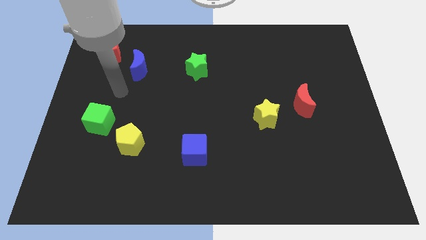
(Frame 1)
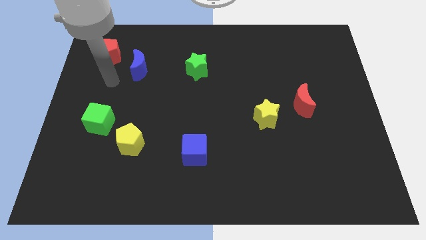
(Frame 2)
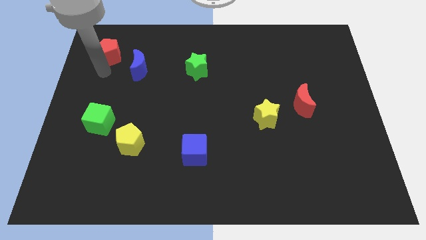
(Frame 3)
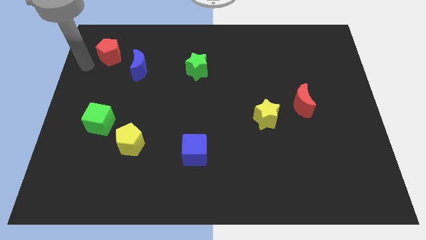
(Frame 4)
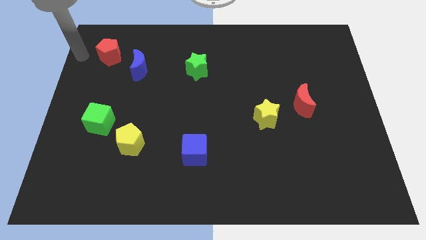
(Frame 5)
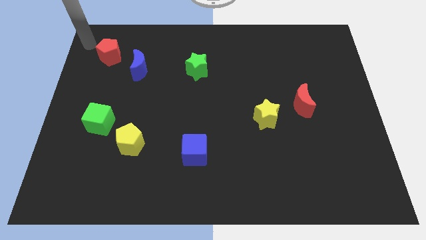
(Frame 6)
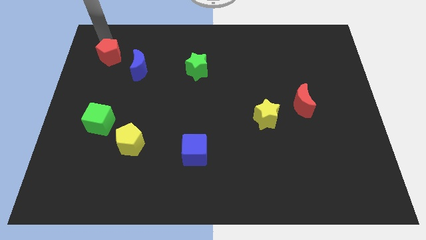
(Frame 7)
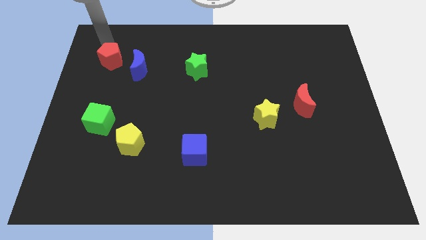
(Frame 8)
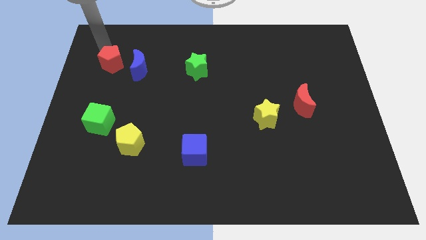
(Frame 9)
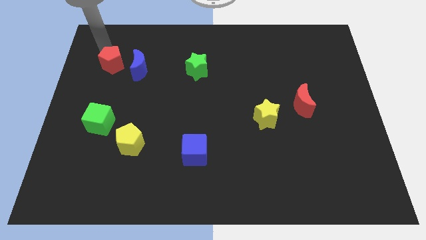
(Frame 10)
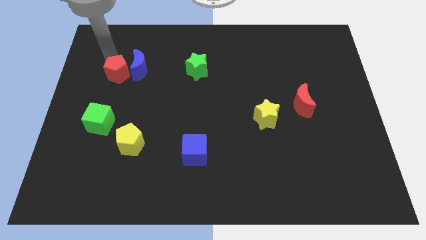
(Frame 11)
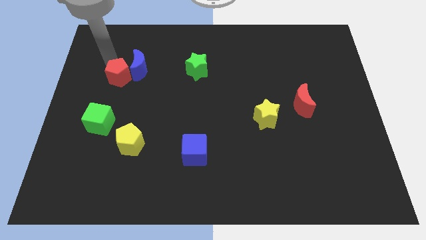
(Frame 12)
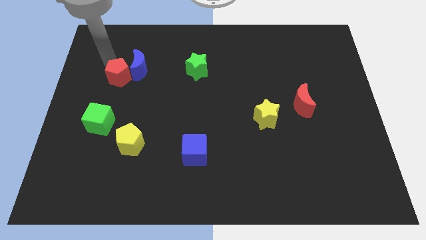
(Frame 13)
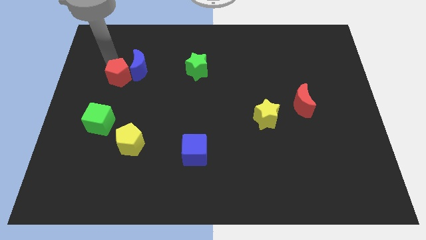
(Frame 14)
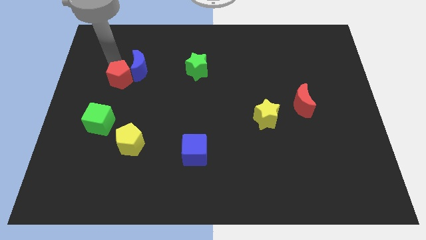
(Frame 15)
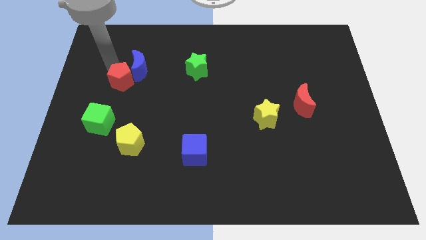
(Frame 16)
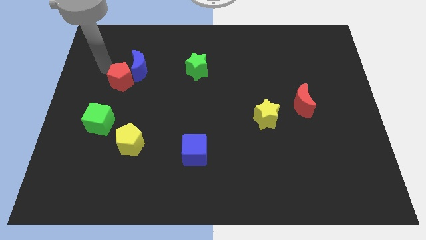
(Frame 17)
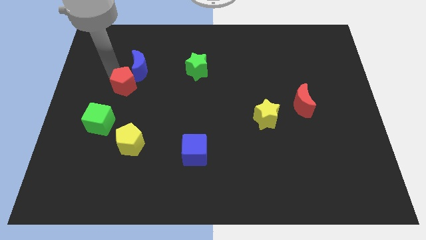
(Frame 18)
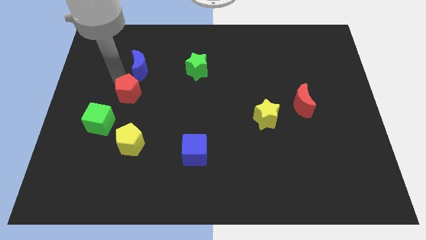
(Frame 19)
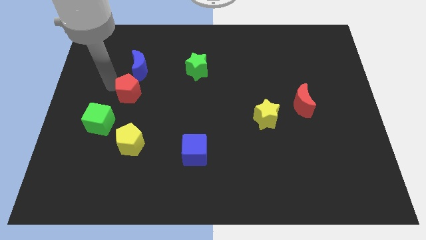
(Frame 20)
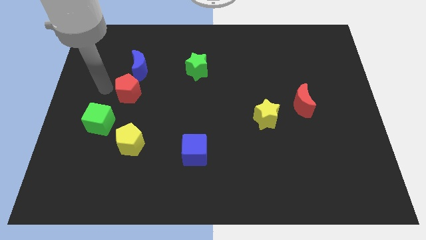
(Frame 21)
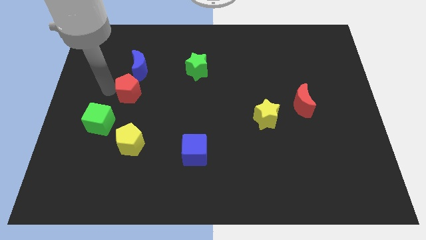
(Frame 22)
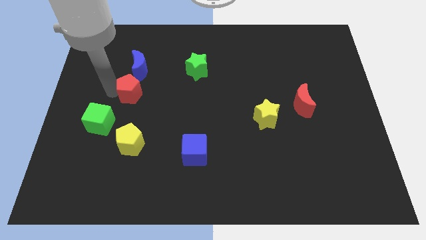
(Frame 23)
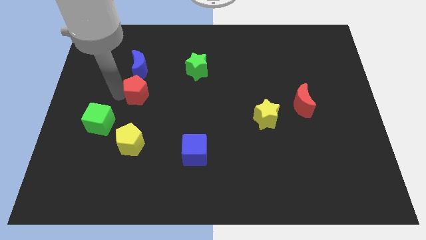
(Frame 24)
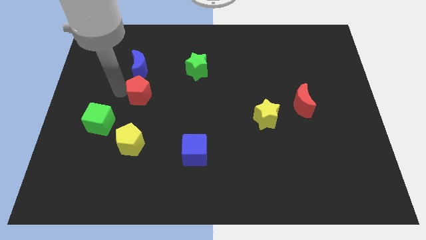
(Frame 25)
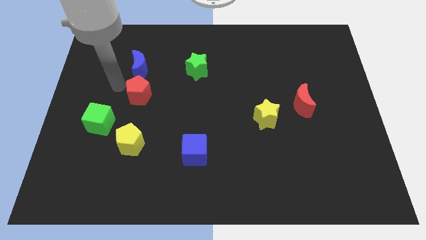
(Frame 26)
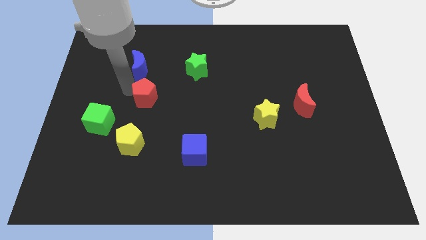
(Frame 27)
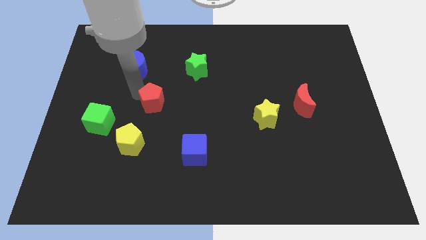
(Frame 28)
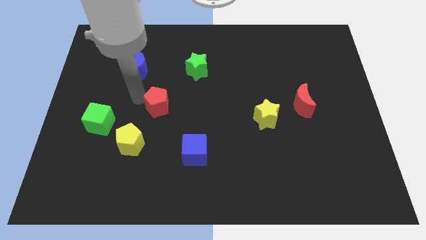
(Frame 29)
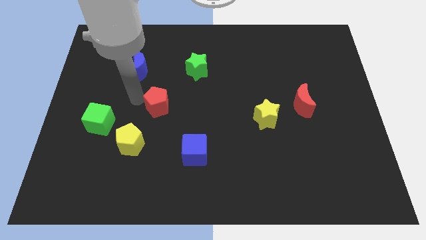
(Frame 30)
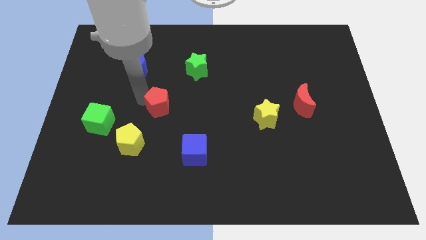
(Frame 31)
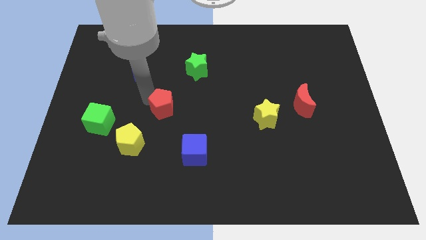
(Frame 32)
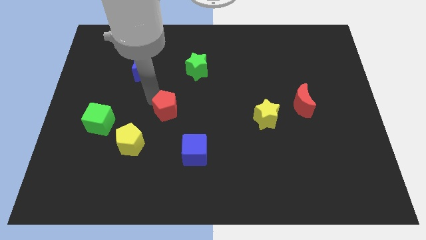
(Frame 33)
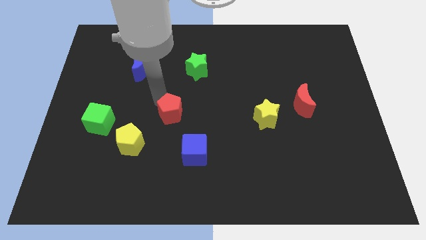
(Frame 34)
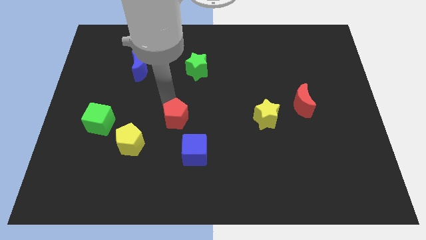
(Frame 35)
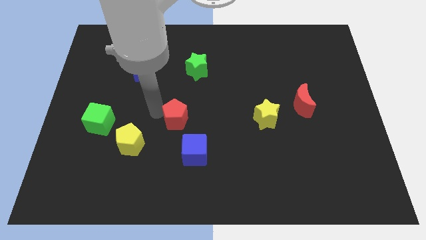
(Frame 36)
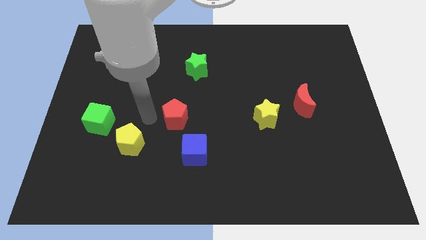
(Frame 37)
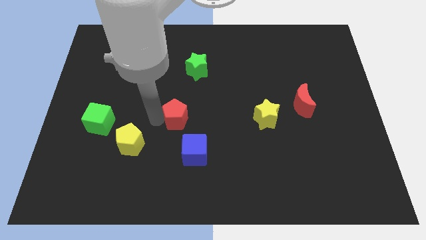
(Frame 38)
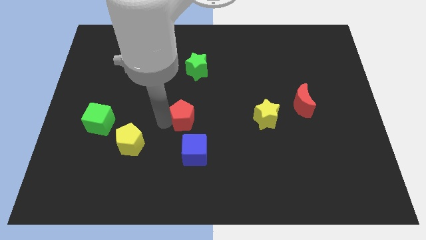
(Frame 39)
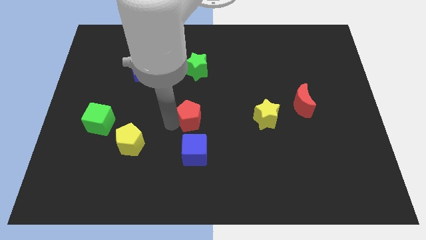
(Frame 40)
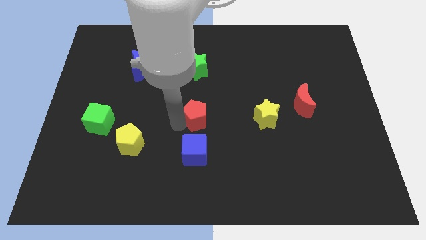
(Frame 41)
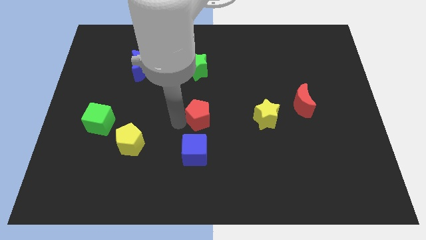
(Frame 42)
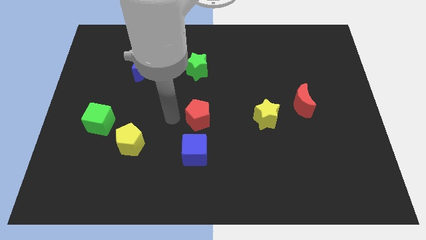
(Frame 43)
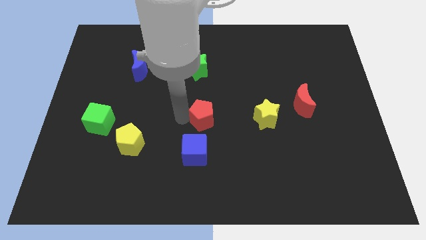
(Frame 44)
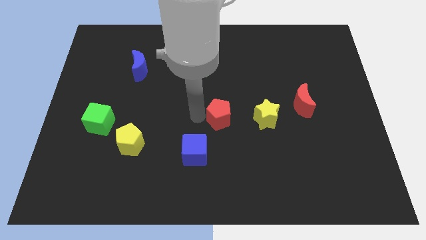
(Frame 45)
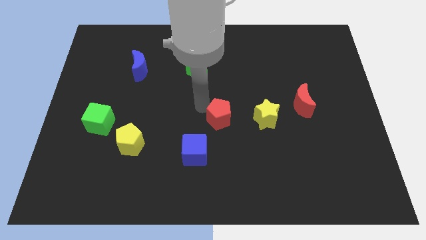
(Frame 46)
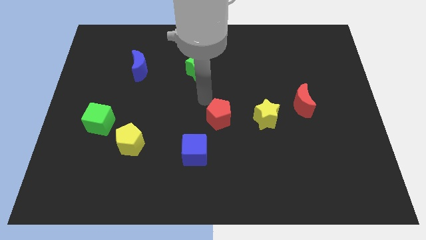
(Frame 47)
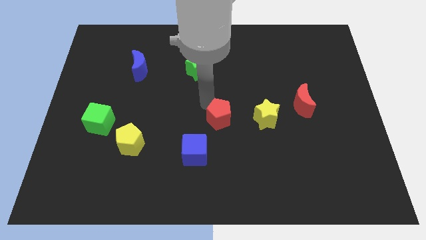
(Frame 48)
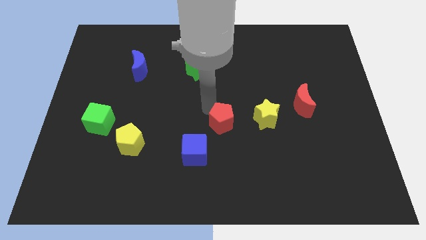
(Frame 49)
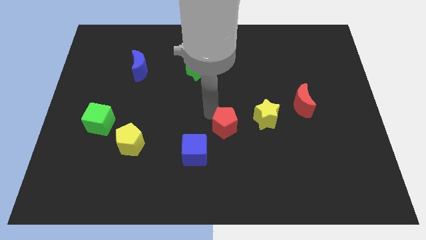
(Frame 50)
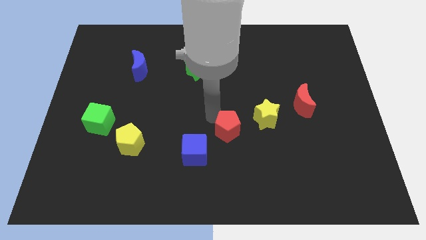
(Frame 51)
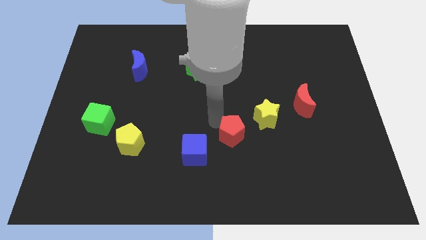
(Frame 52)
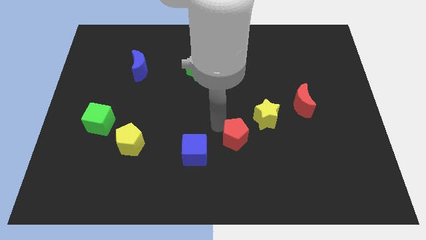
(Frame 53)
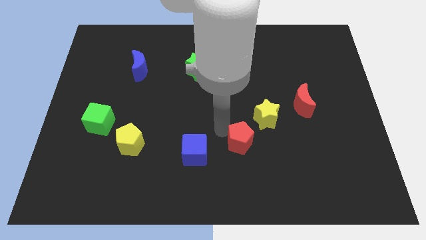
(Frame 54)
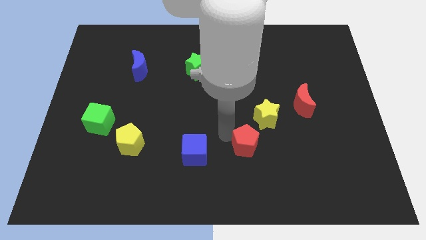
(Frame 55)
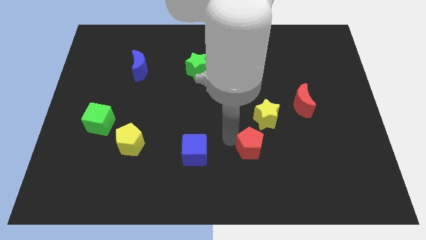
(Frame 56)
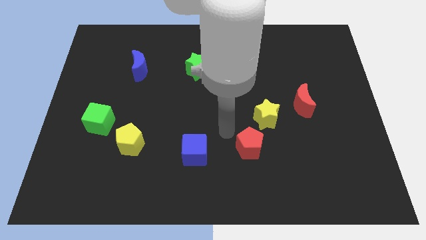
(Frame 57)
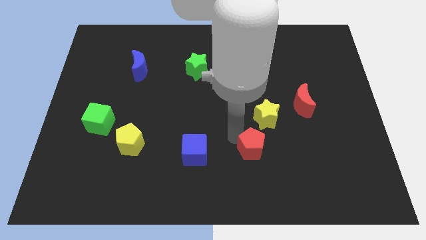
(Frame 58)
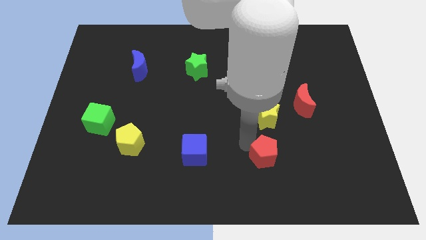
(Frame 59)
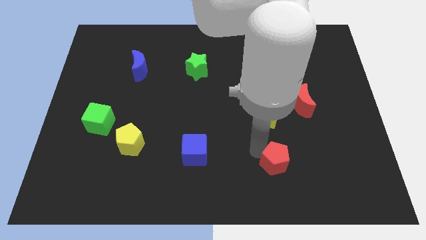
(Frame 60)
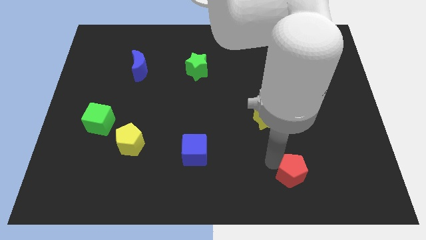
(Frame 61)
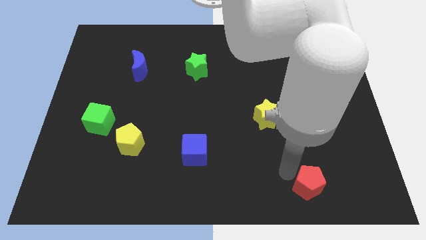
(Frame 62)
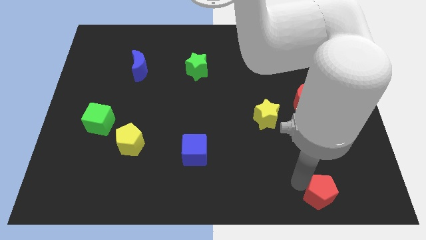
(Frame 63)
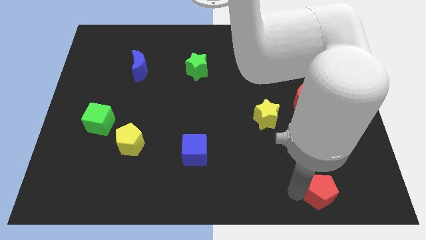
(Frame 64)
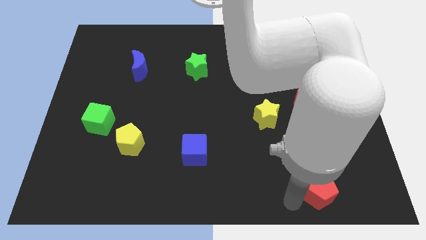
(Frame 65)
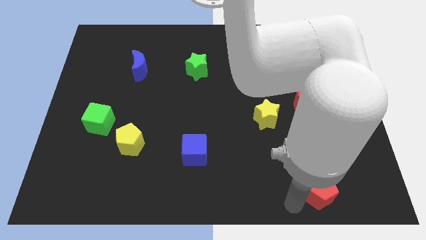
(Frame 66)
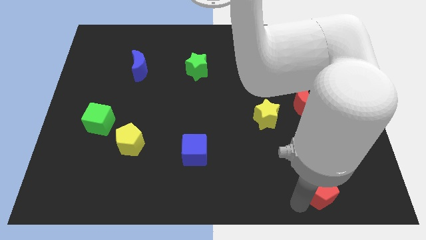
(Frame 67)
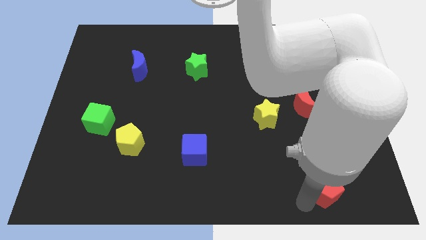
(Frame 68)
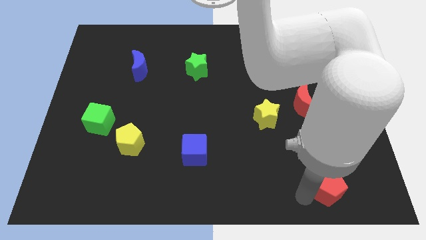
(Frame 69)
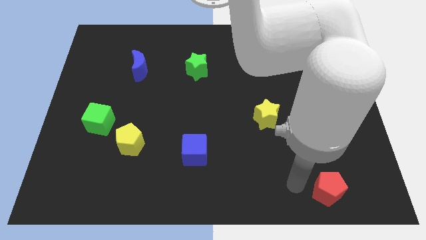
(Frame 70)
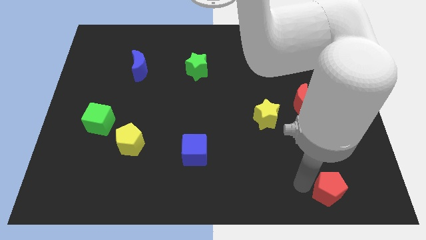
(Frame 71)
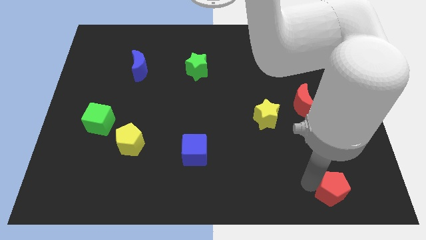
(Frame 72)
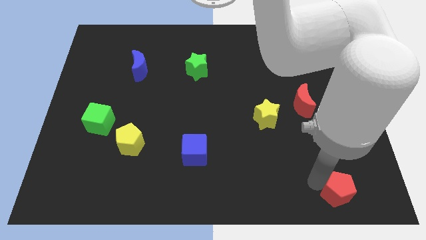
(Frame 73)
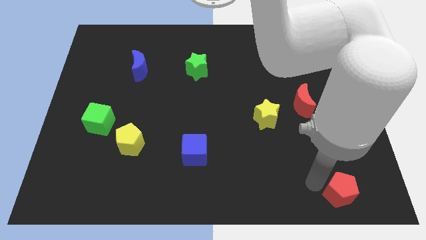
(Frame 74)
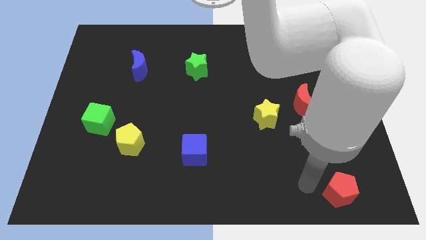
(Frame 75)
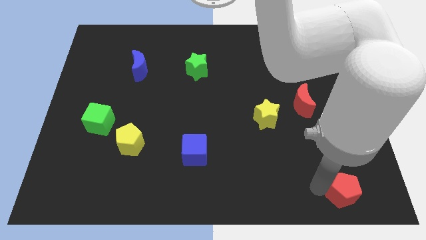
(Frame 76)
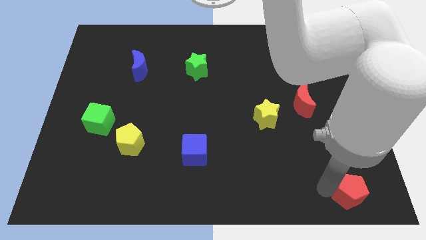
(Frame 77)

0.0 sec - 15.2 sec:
move the red pentagon to the bottom right corner
